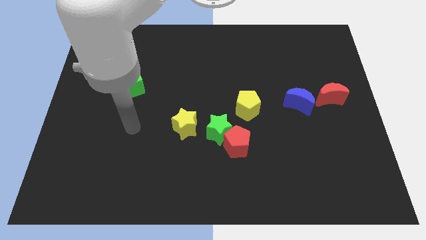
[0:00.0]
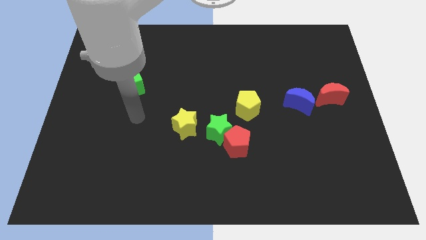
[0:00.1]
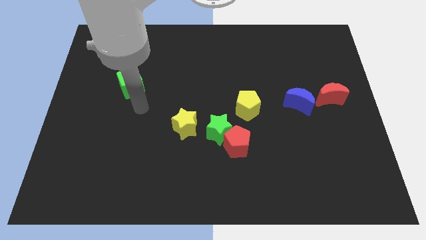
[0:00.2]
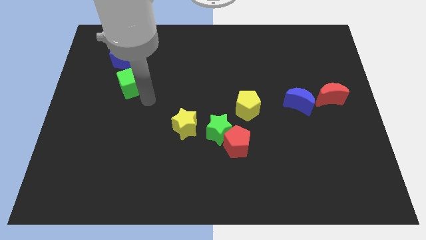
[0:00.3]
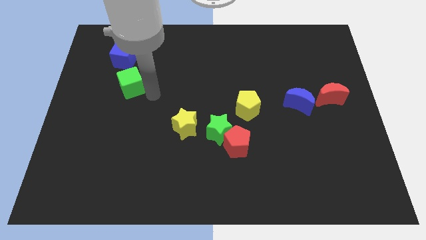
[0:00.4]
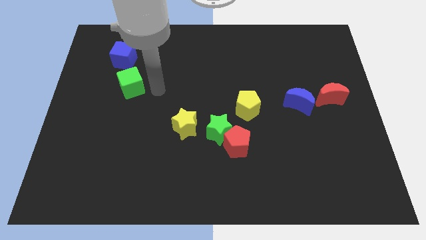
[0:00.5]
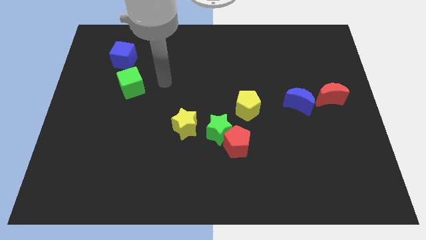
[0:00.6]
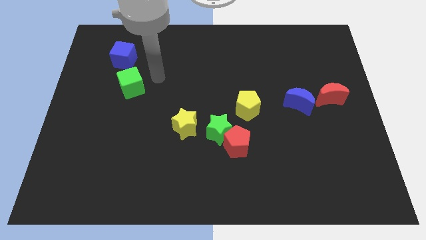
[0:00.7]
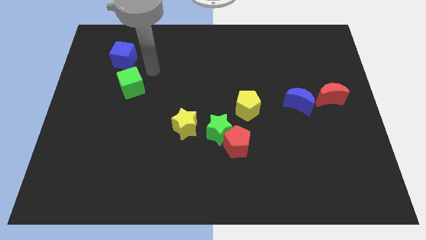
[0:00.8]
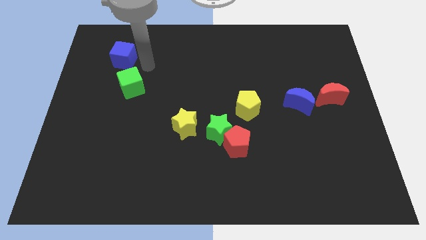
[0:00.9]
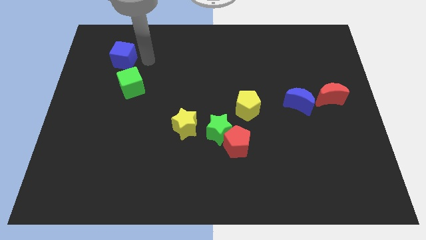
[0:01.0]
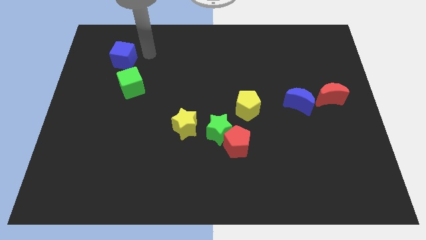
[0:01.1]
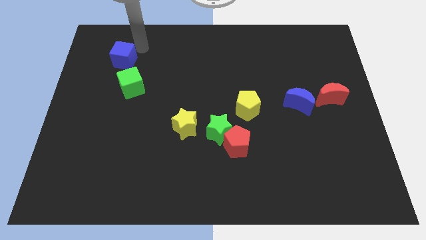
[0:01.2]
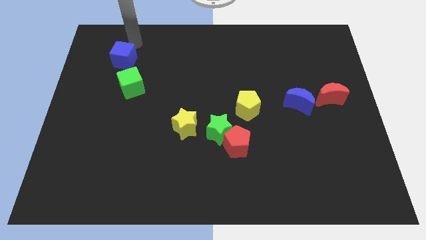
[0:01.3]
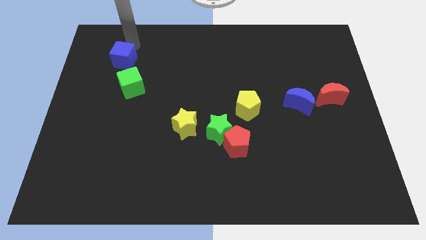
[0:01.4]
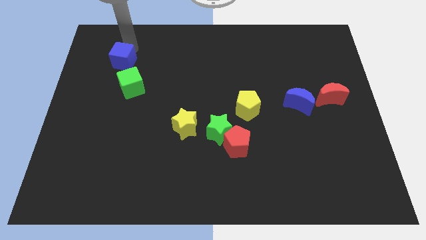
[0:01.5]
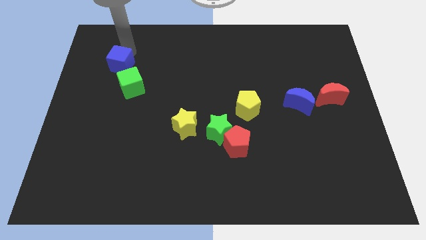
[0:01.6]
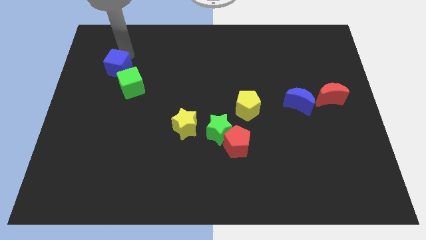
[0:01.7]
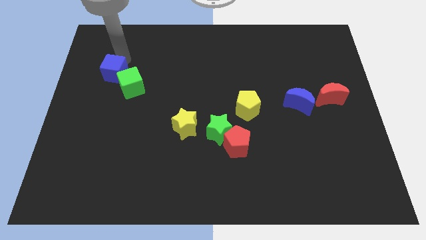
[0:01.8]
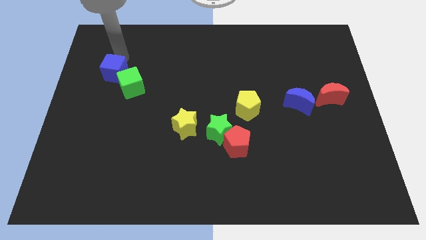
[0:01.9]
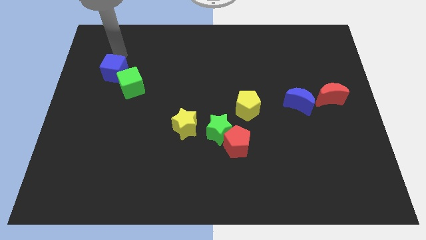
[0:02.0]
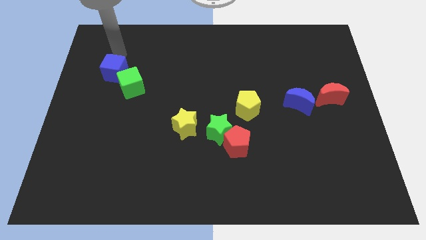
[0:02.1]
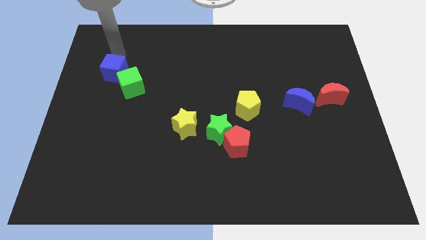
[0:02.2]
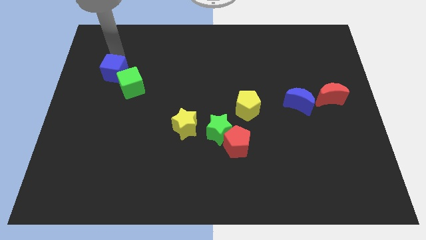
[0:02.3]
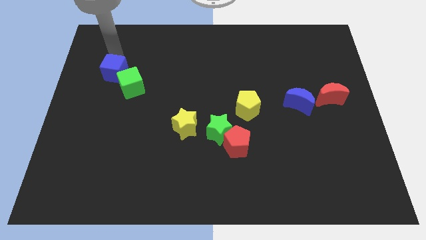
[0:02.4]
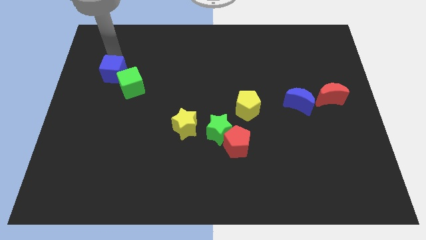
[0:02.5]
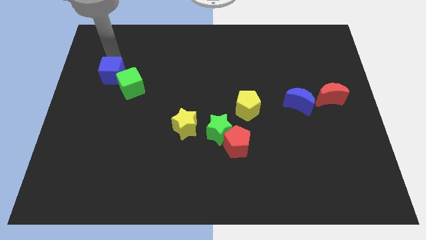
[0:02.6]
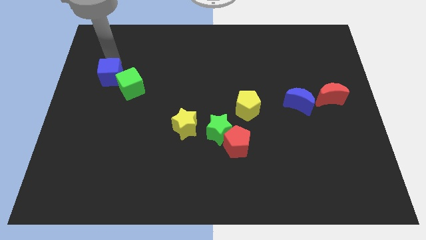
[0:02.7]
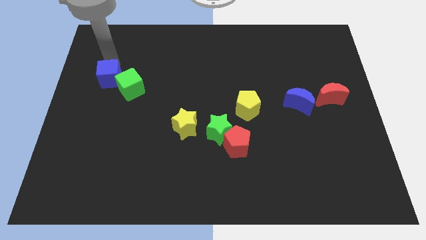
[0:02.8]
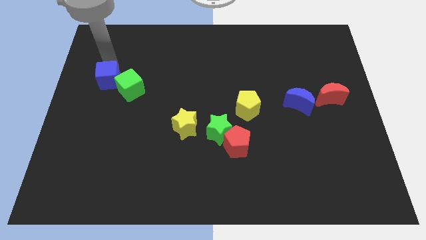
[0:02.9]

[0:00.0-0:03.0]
slide the blue cube downwards a little bit

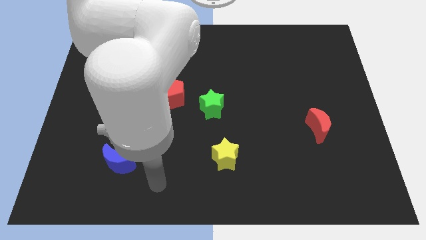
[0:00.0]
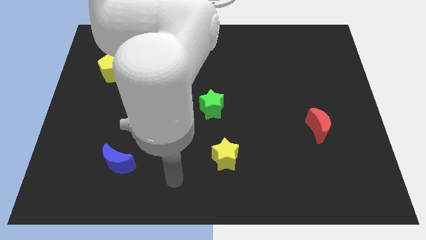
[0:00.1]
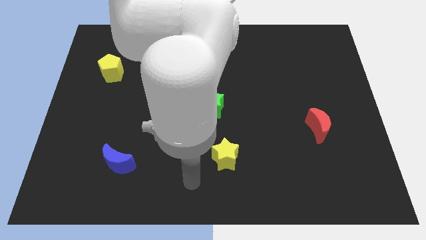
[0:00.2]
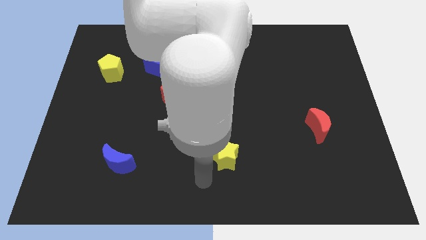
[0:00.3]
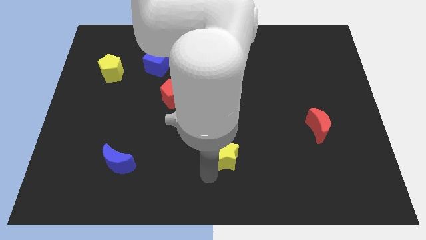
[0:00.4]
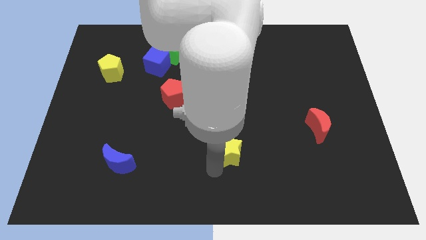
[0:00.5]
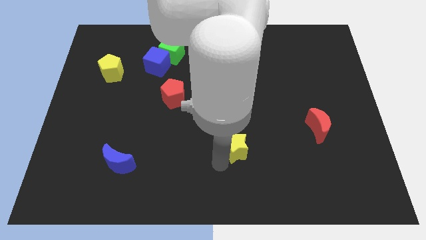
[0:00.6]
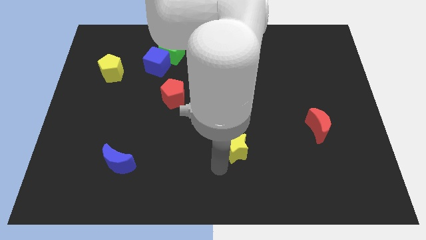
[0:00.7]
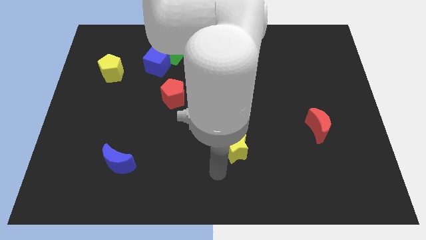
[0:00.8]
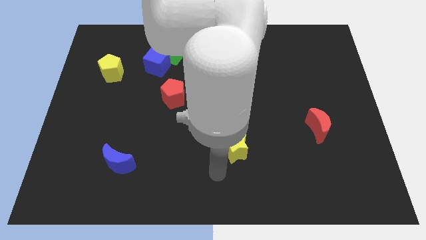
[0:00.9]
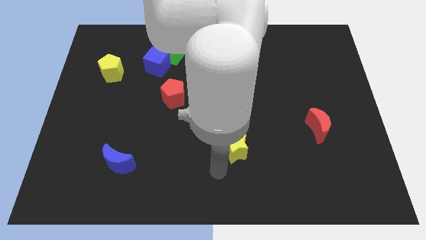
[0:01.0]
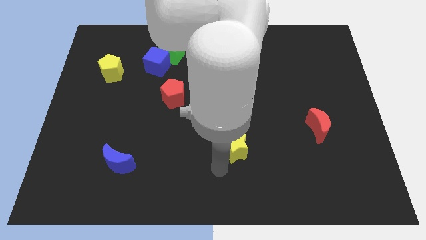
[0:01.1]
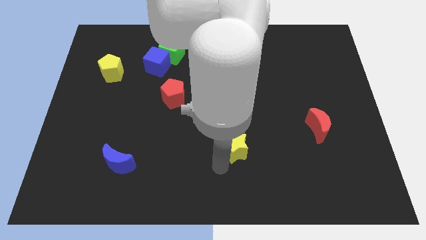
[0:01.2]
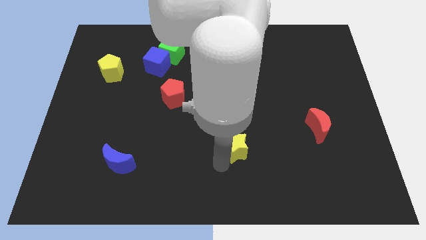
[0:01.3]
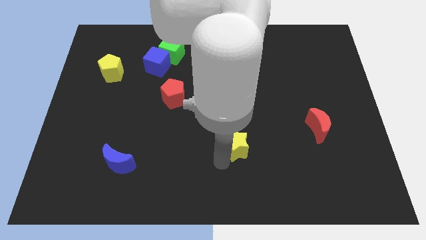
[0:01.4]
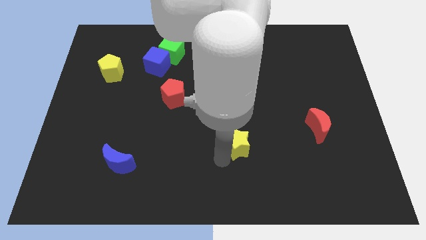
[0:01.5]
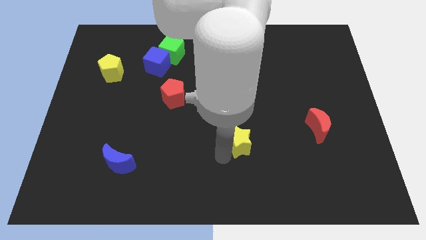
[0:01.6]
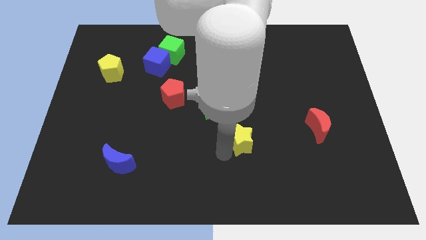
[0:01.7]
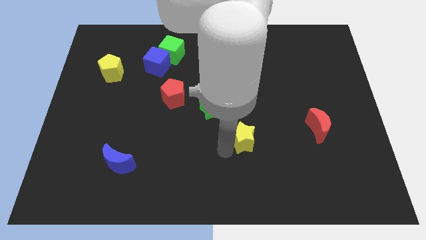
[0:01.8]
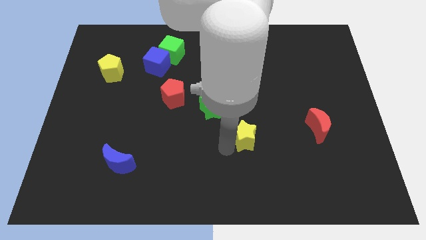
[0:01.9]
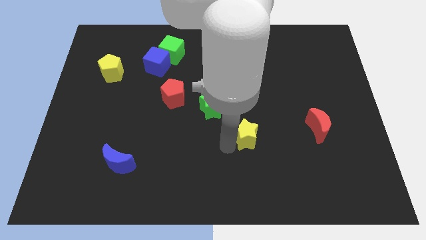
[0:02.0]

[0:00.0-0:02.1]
slide the yellow star diagonally up and to the right a little bit

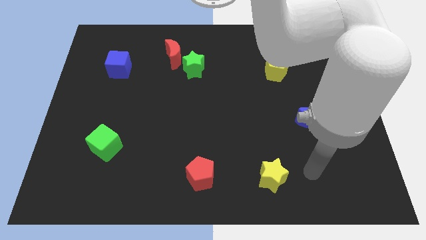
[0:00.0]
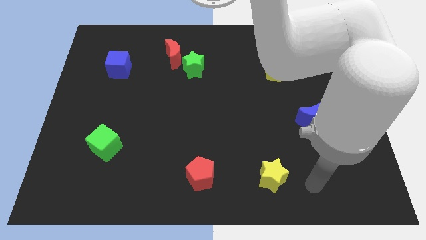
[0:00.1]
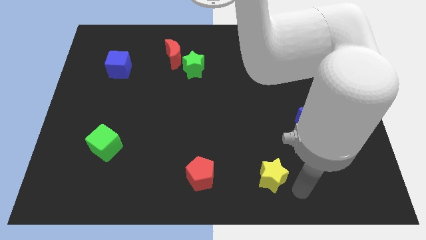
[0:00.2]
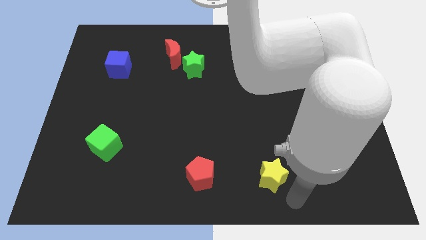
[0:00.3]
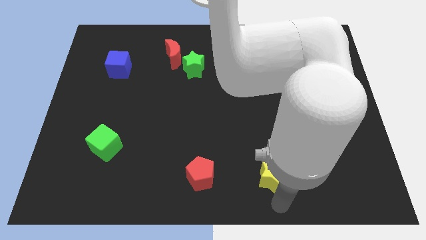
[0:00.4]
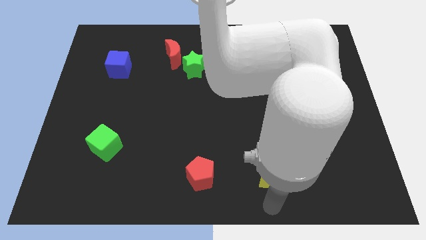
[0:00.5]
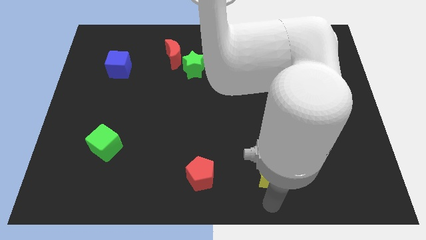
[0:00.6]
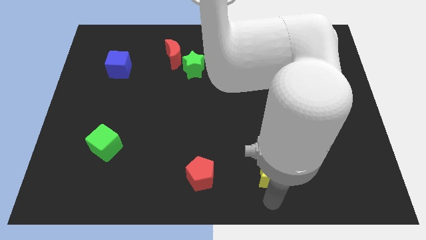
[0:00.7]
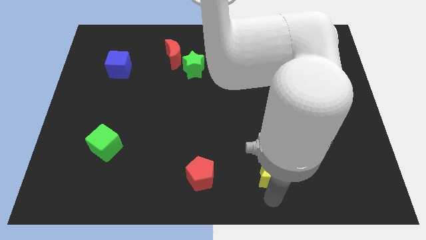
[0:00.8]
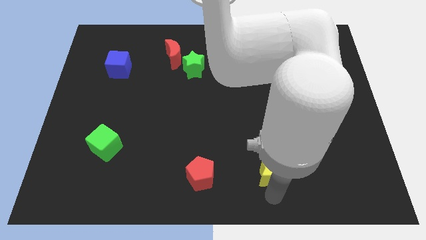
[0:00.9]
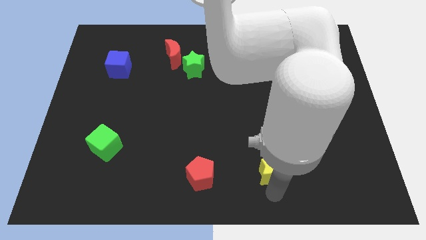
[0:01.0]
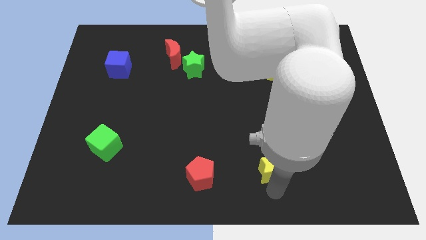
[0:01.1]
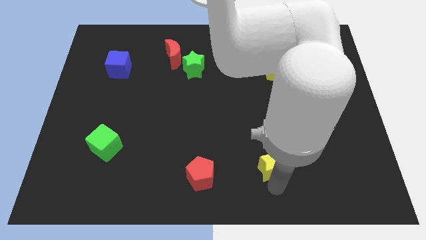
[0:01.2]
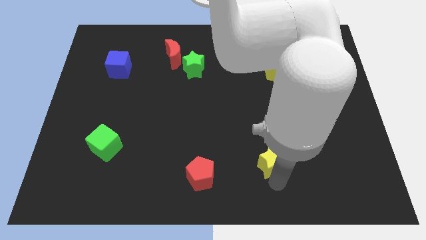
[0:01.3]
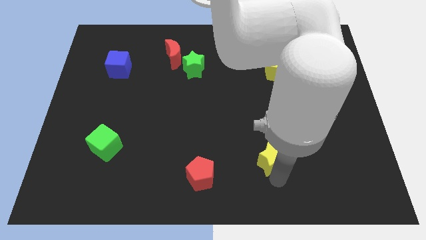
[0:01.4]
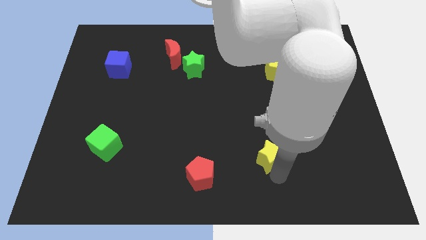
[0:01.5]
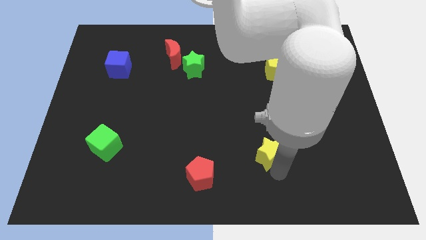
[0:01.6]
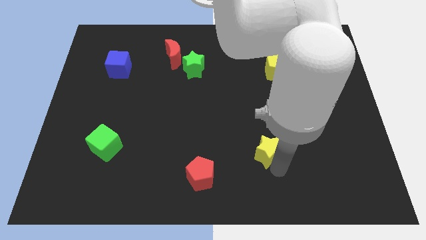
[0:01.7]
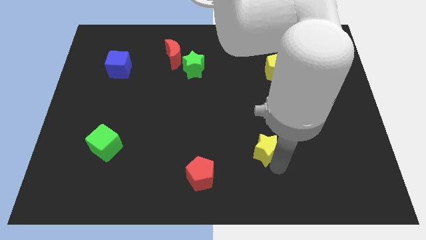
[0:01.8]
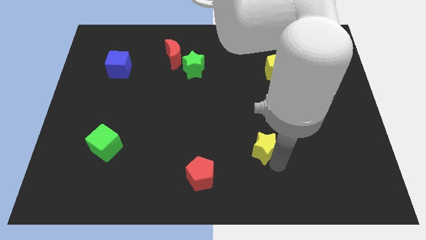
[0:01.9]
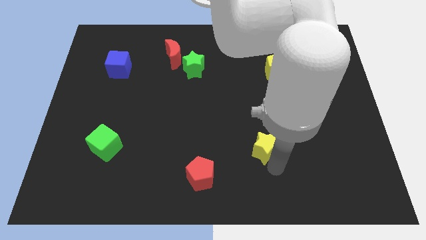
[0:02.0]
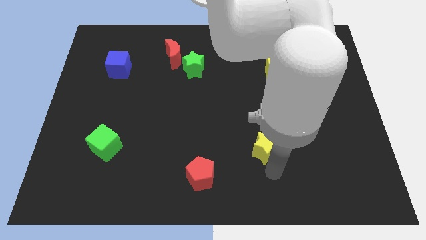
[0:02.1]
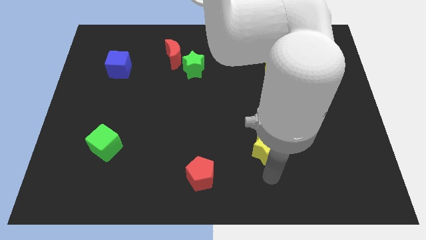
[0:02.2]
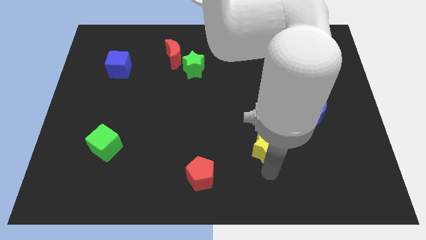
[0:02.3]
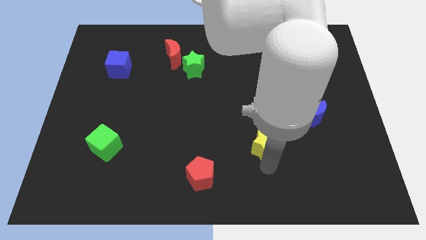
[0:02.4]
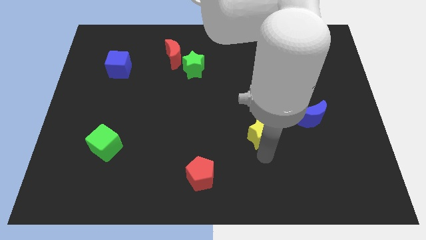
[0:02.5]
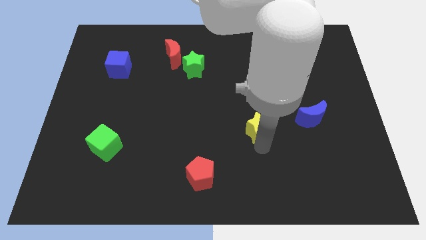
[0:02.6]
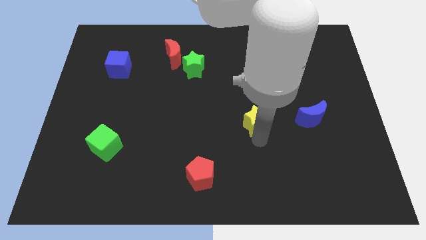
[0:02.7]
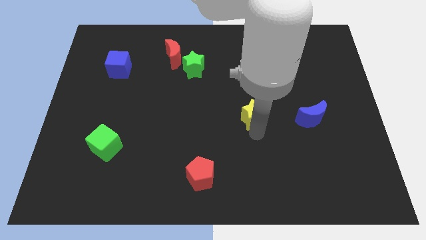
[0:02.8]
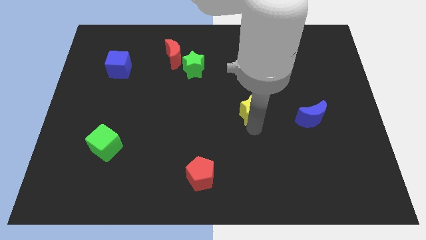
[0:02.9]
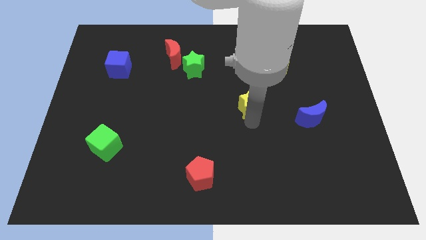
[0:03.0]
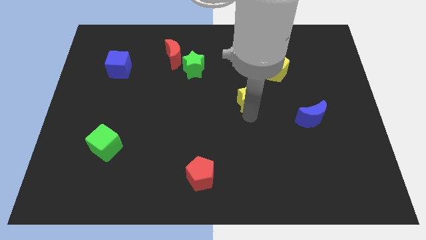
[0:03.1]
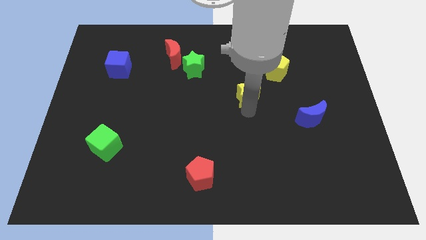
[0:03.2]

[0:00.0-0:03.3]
push the yellow star up
